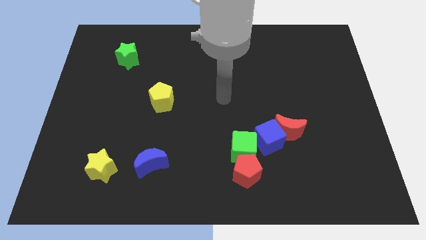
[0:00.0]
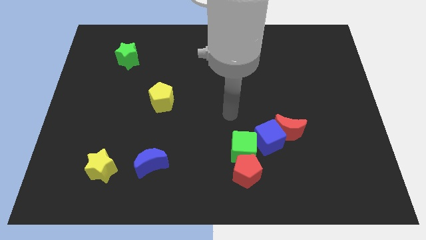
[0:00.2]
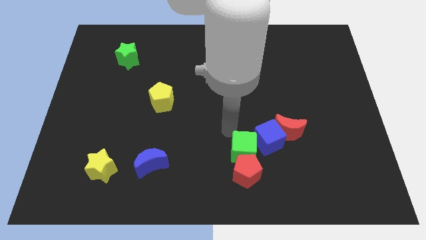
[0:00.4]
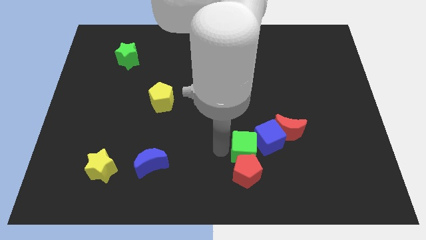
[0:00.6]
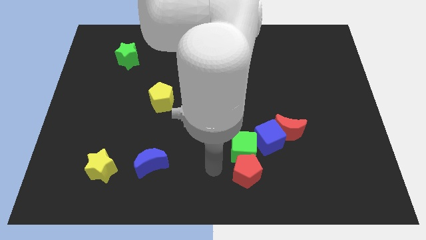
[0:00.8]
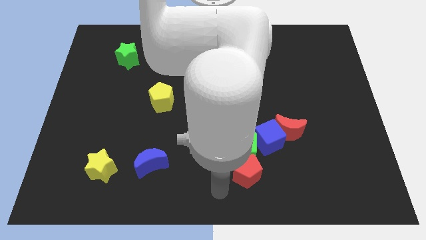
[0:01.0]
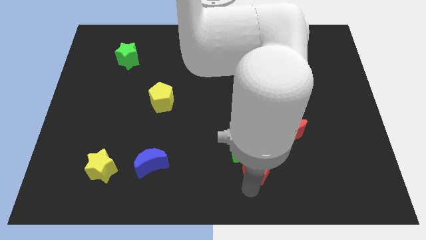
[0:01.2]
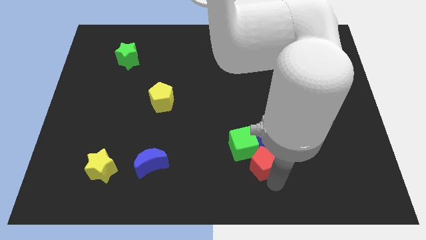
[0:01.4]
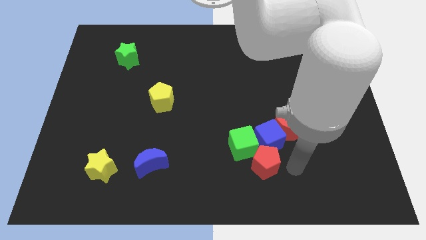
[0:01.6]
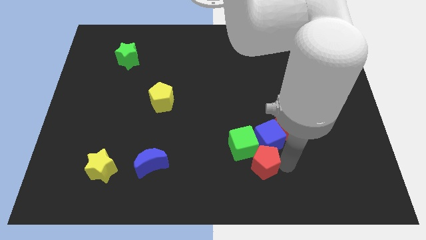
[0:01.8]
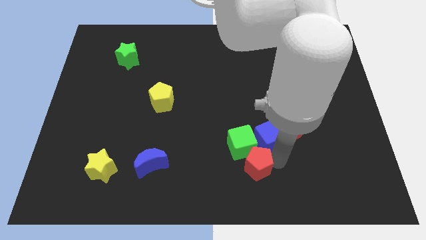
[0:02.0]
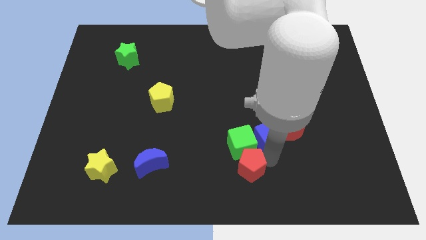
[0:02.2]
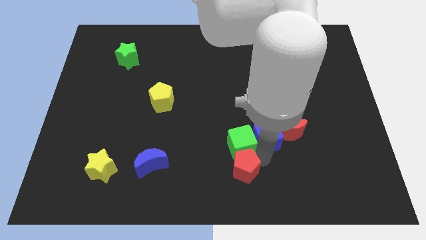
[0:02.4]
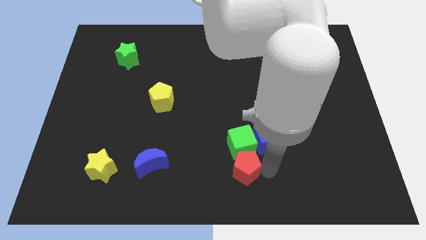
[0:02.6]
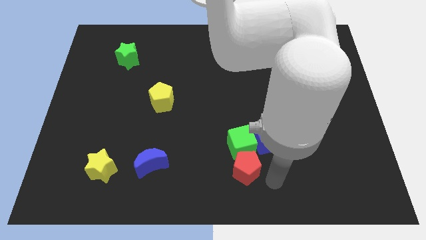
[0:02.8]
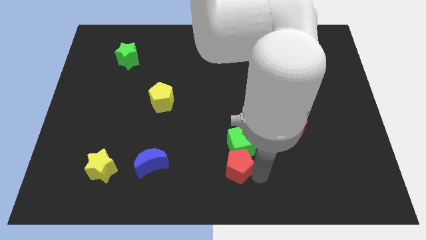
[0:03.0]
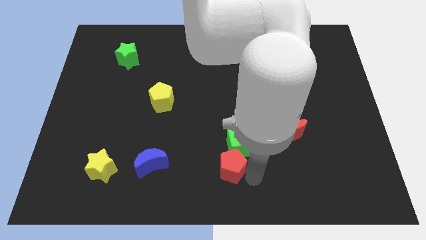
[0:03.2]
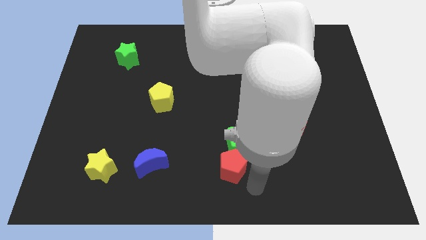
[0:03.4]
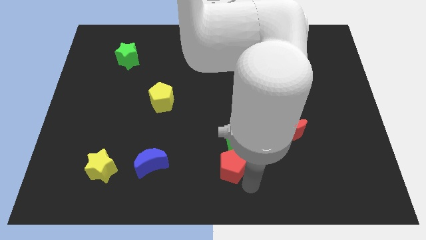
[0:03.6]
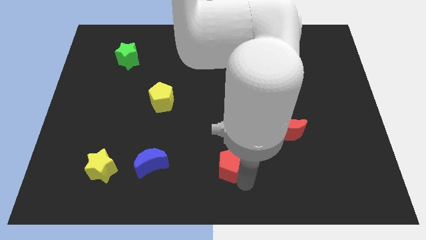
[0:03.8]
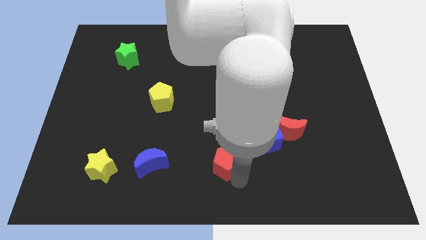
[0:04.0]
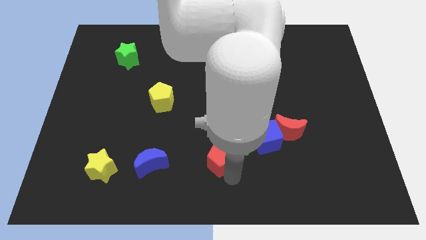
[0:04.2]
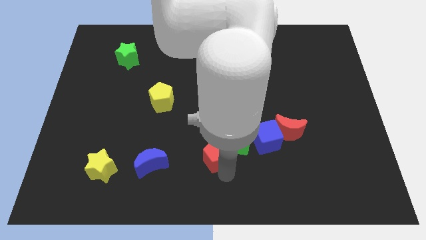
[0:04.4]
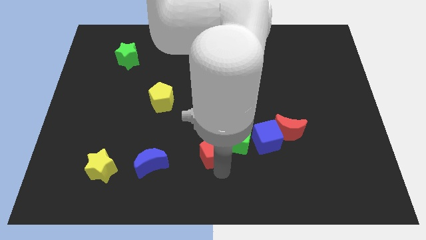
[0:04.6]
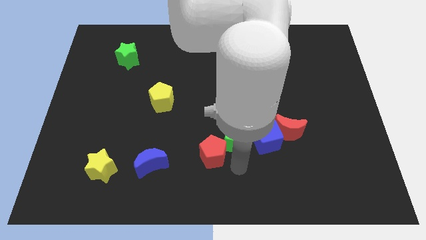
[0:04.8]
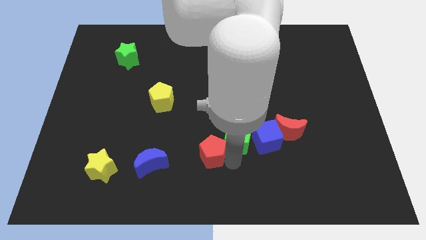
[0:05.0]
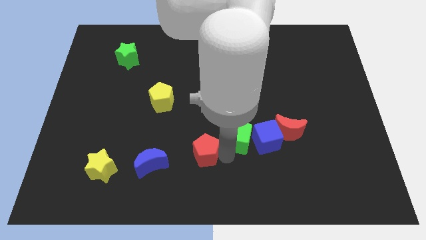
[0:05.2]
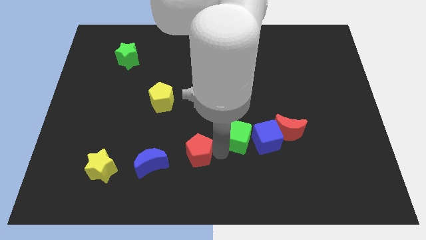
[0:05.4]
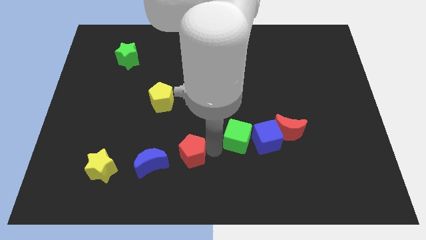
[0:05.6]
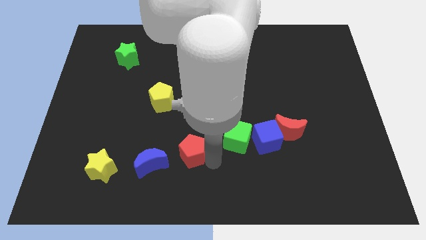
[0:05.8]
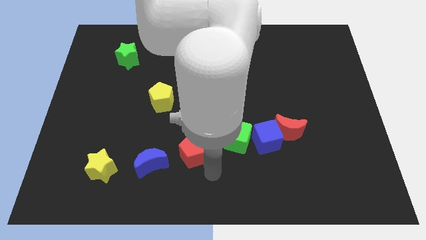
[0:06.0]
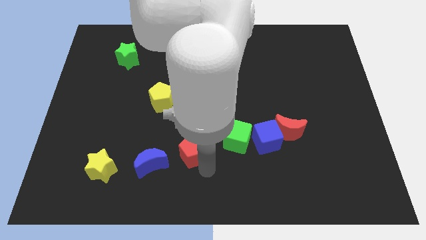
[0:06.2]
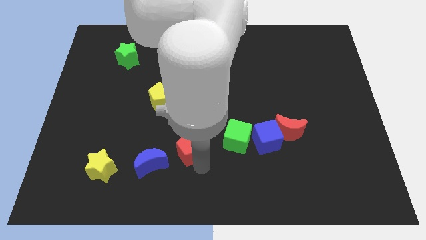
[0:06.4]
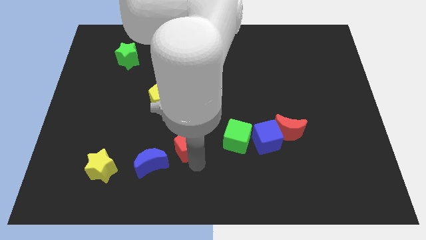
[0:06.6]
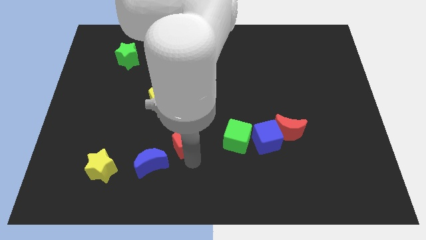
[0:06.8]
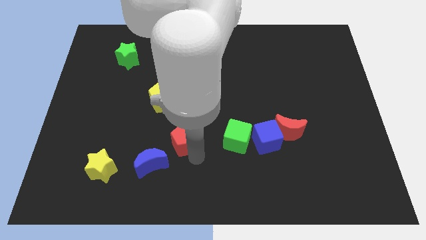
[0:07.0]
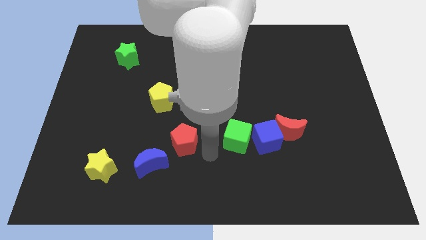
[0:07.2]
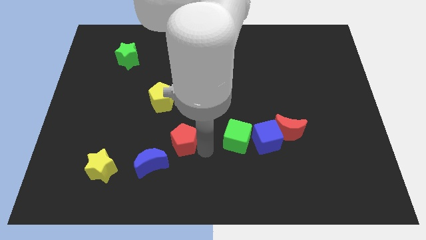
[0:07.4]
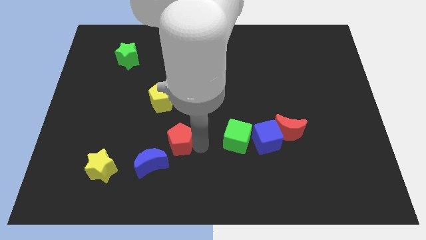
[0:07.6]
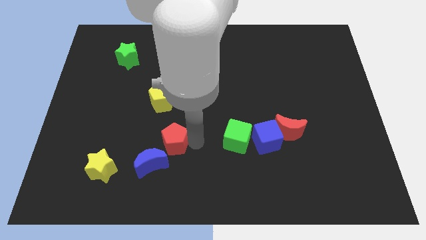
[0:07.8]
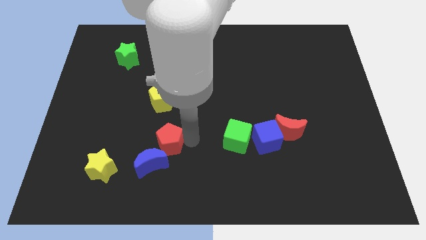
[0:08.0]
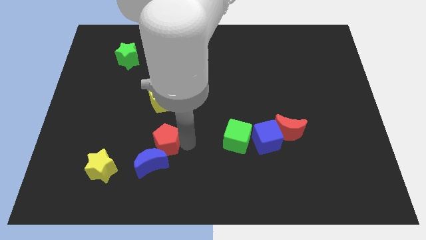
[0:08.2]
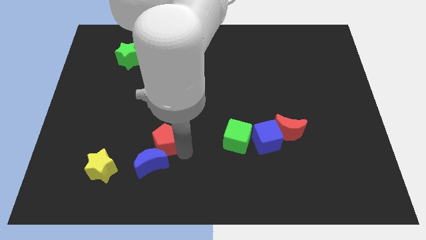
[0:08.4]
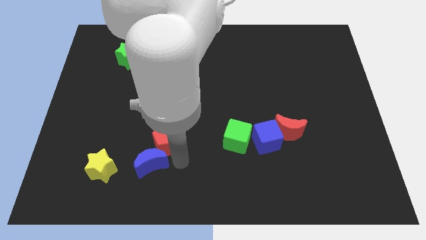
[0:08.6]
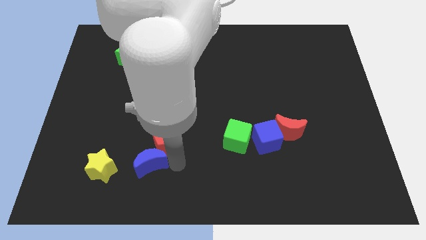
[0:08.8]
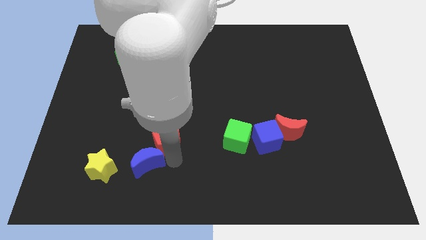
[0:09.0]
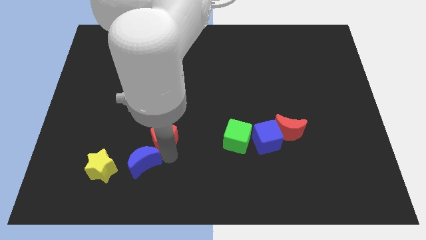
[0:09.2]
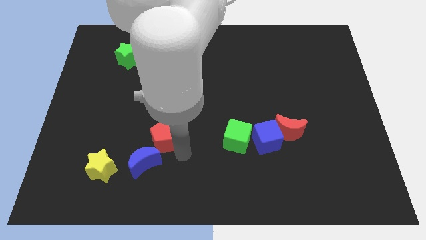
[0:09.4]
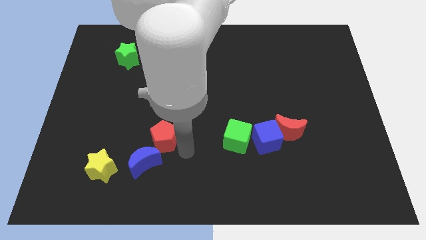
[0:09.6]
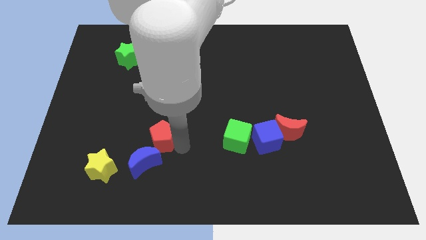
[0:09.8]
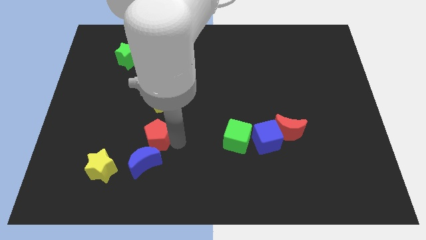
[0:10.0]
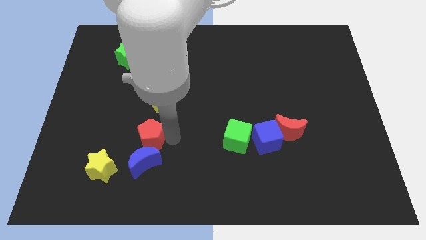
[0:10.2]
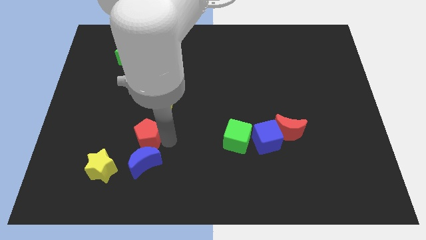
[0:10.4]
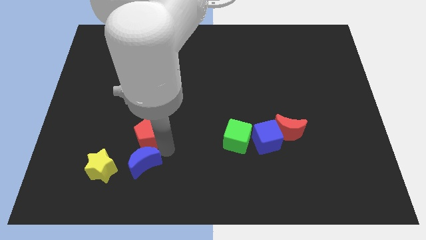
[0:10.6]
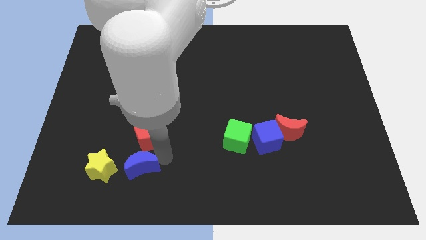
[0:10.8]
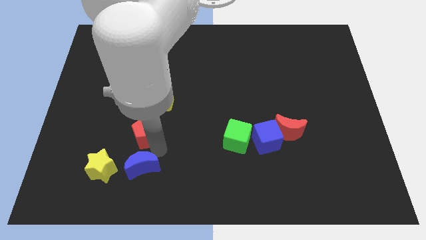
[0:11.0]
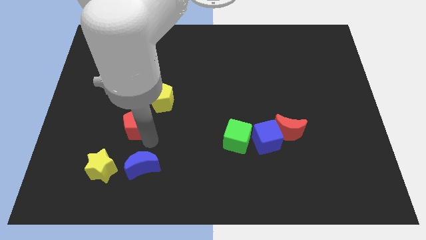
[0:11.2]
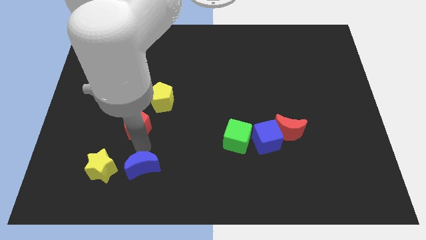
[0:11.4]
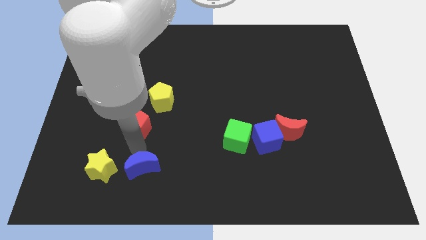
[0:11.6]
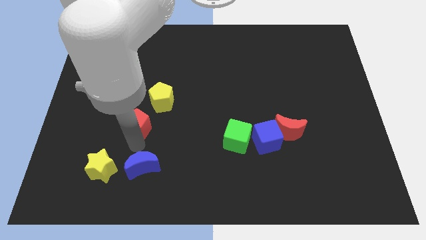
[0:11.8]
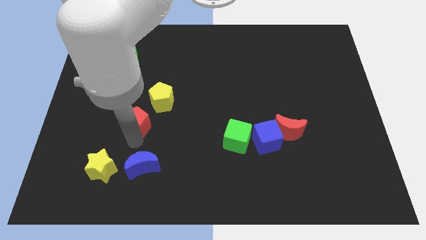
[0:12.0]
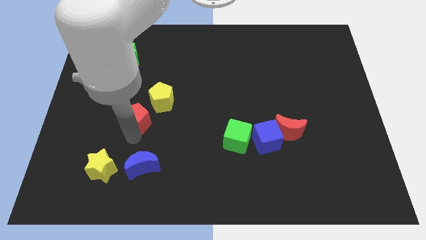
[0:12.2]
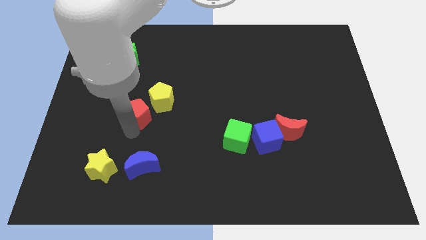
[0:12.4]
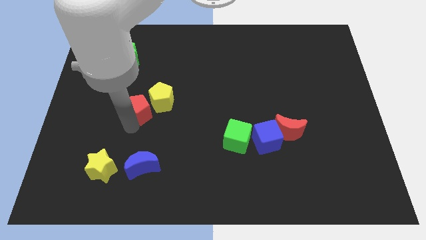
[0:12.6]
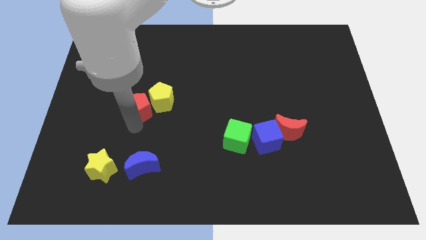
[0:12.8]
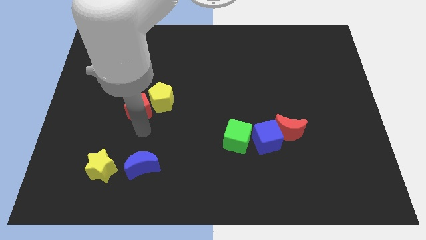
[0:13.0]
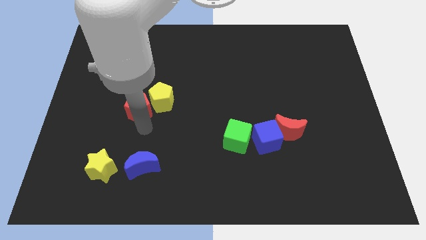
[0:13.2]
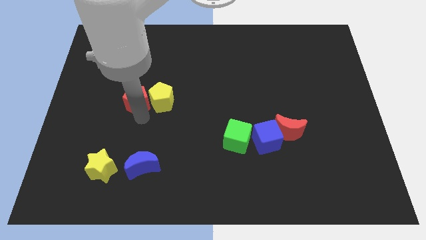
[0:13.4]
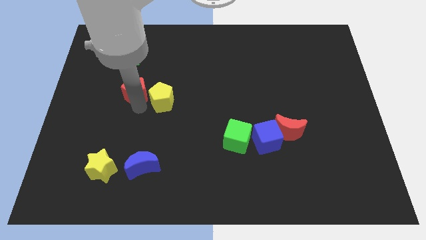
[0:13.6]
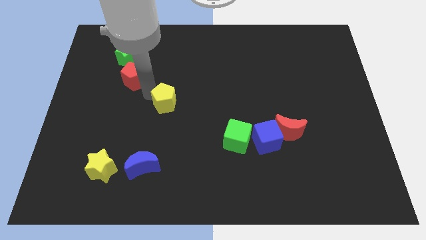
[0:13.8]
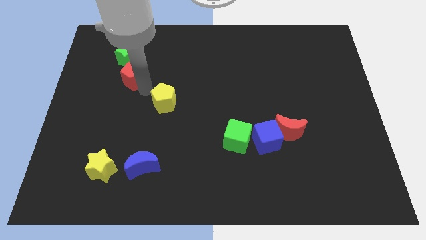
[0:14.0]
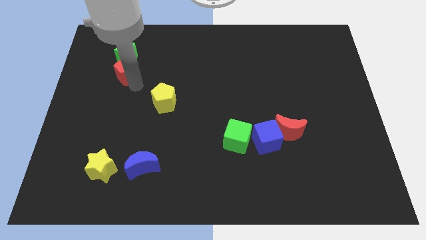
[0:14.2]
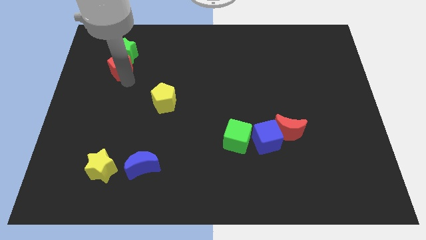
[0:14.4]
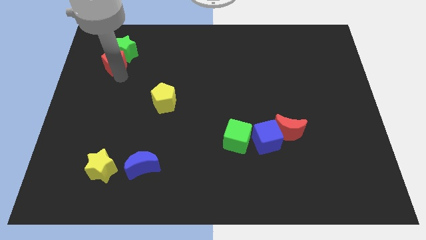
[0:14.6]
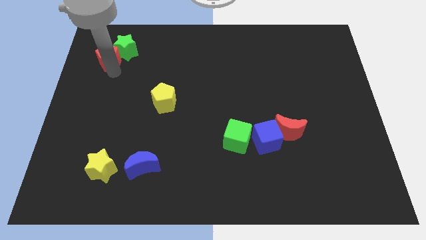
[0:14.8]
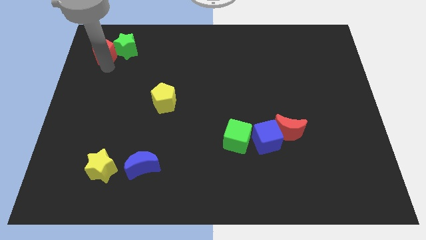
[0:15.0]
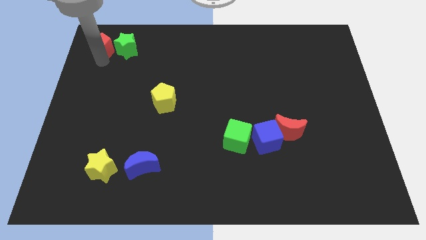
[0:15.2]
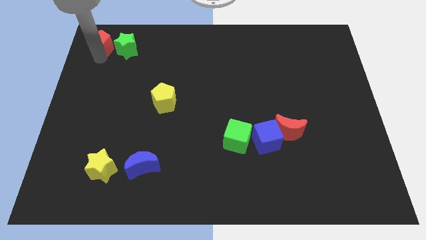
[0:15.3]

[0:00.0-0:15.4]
move the red pentagon to the top left of the board
